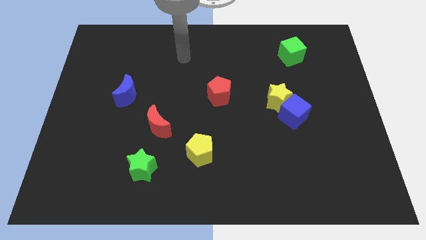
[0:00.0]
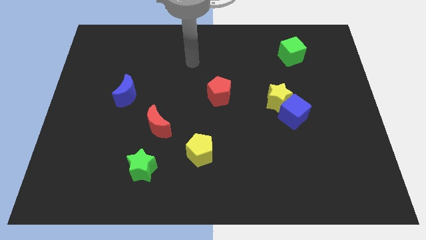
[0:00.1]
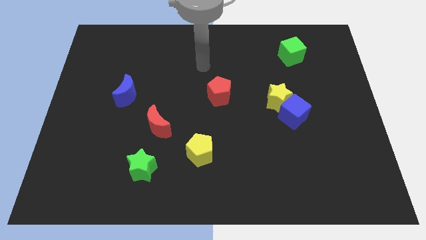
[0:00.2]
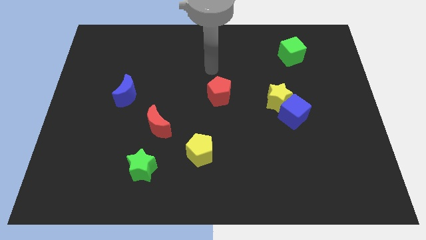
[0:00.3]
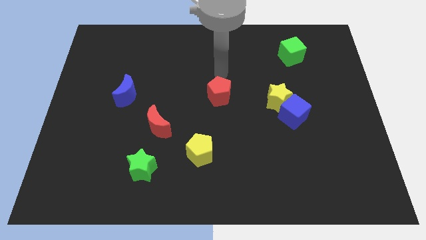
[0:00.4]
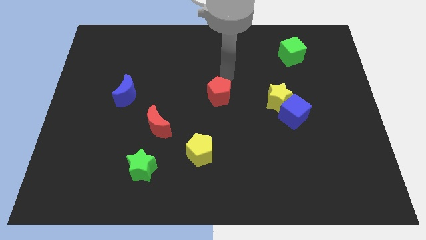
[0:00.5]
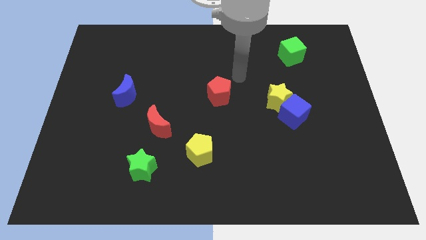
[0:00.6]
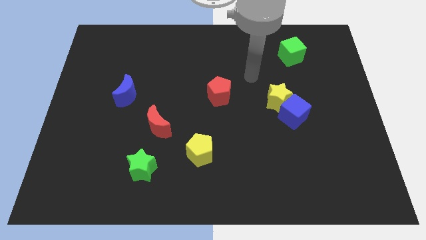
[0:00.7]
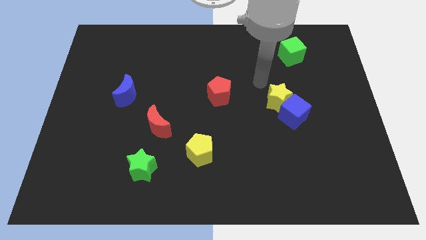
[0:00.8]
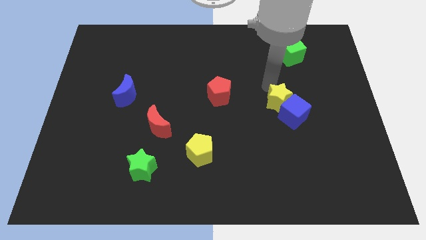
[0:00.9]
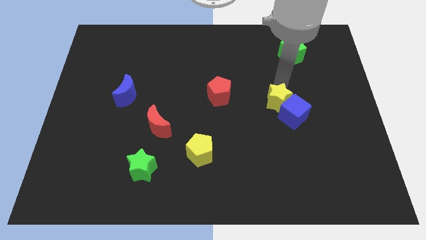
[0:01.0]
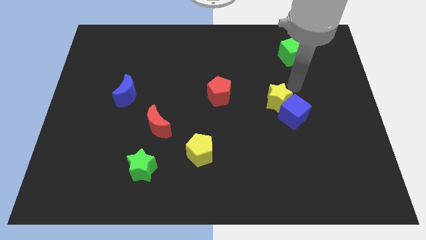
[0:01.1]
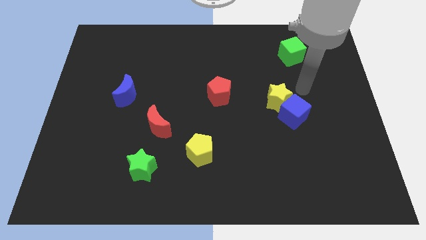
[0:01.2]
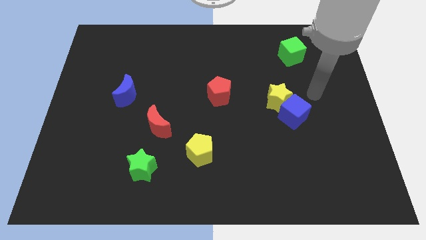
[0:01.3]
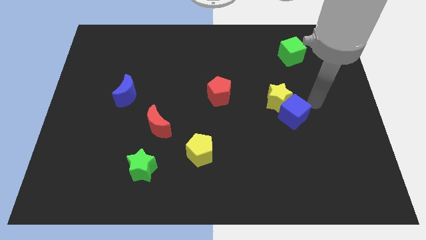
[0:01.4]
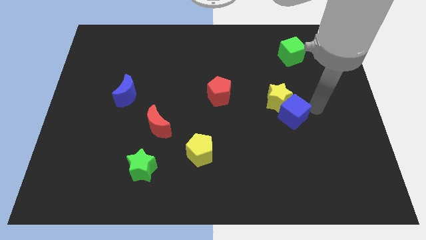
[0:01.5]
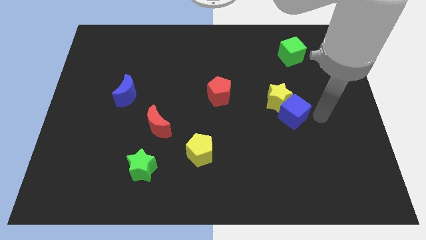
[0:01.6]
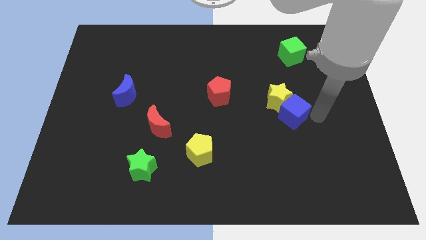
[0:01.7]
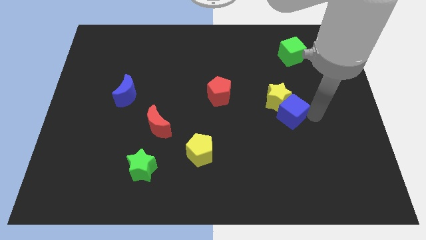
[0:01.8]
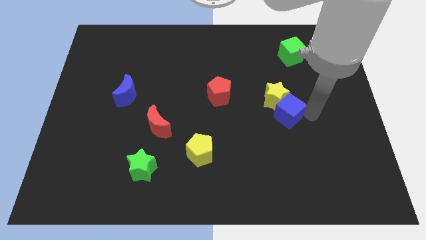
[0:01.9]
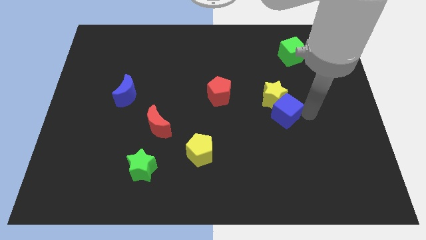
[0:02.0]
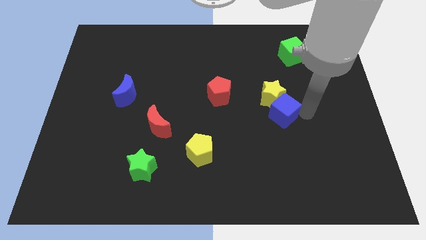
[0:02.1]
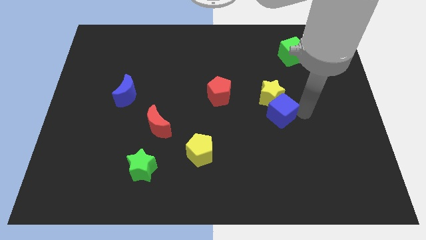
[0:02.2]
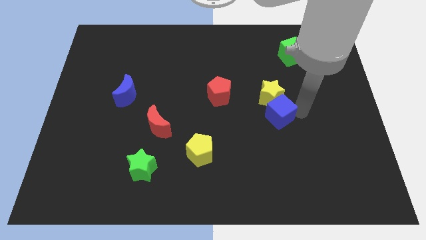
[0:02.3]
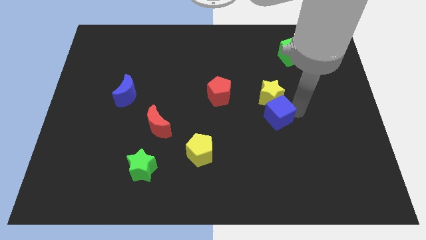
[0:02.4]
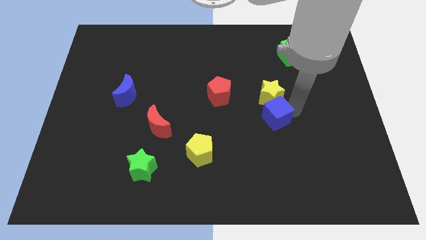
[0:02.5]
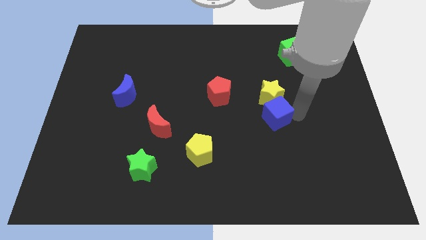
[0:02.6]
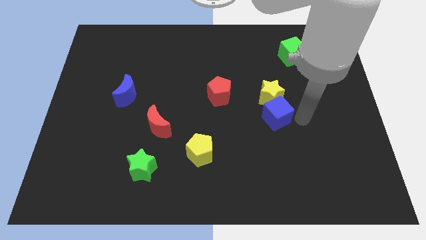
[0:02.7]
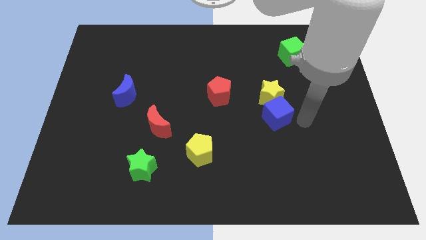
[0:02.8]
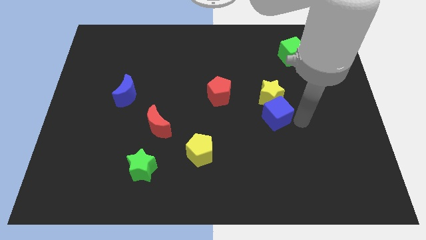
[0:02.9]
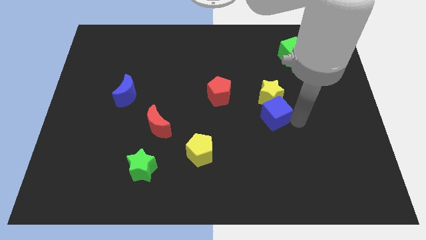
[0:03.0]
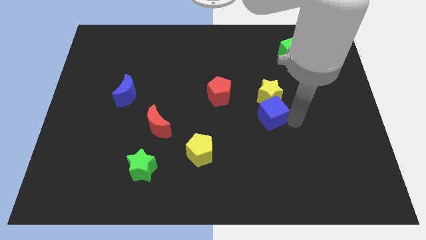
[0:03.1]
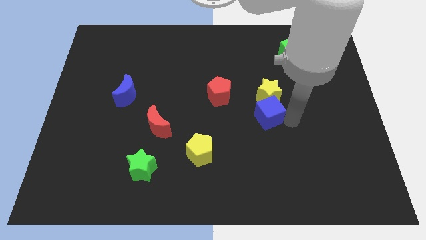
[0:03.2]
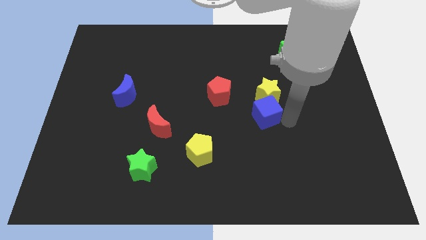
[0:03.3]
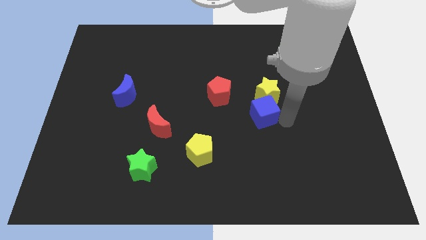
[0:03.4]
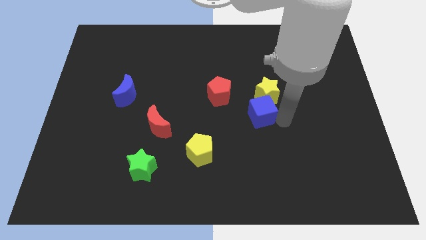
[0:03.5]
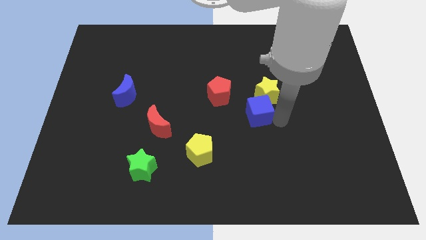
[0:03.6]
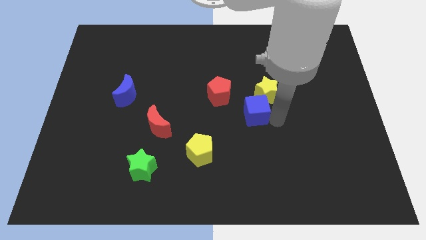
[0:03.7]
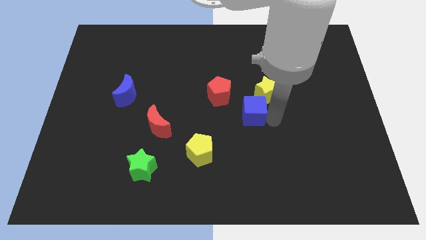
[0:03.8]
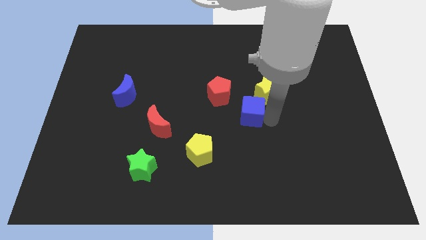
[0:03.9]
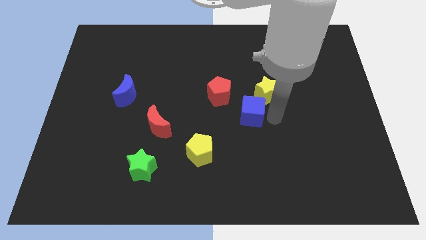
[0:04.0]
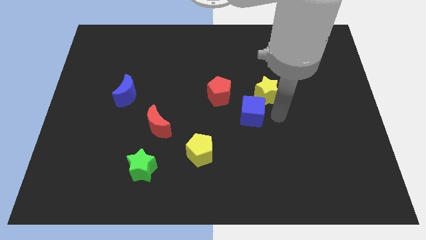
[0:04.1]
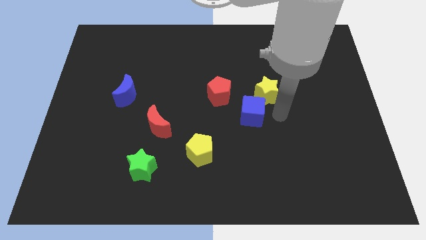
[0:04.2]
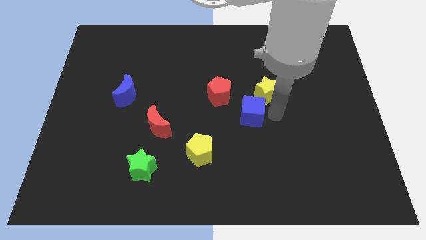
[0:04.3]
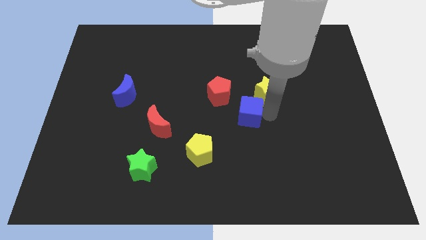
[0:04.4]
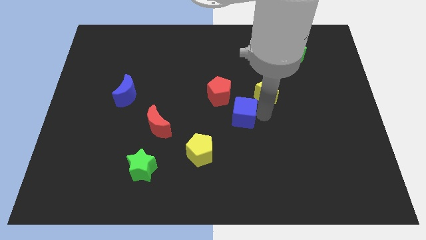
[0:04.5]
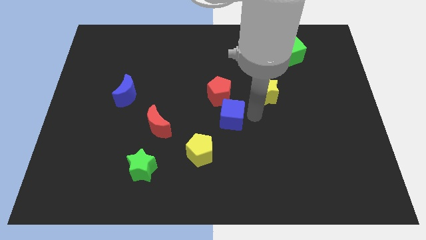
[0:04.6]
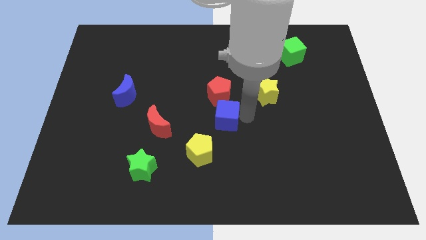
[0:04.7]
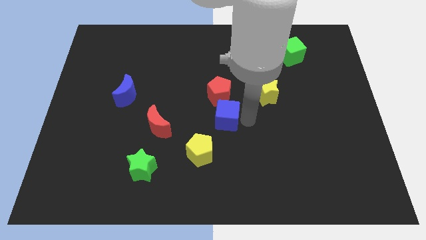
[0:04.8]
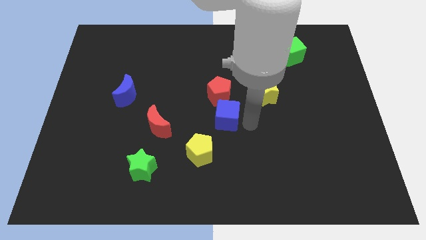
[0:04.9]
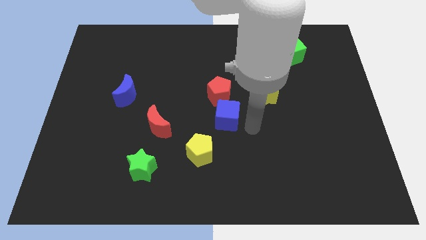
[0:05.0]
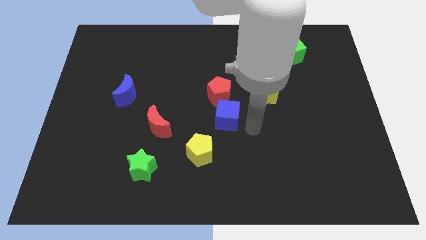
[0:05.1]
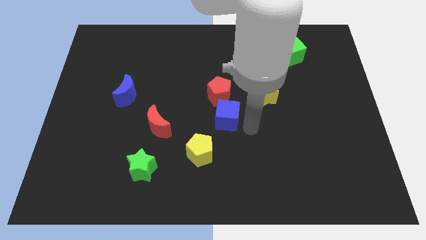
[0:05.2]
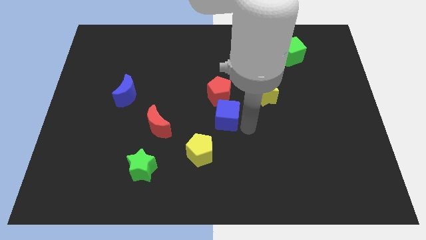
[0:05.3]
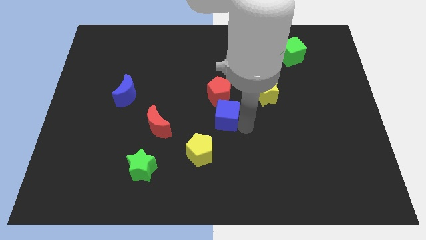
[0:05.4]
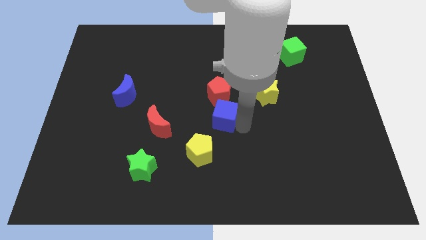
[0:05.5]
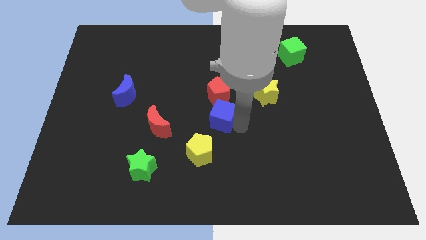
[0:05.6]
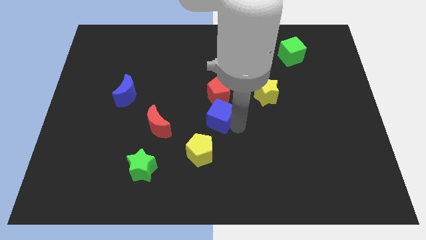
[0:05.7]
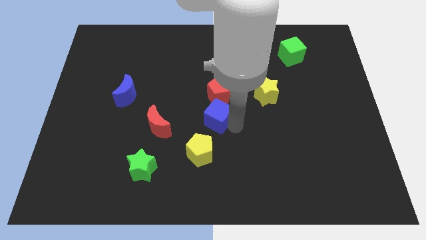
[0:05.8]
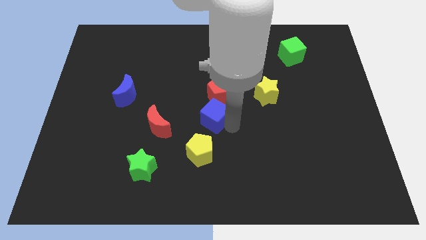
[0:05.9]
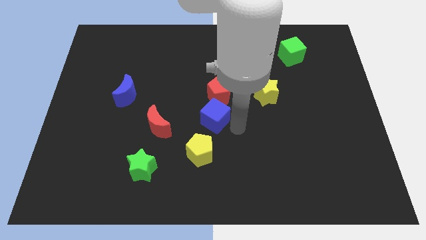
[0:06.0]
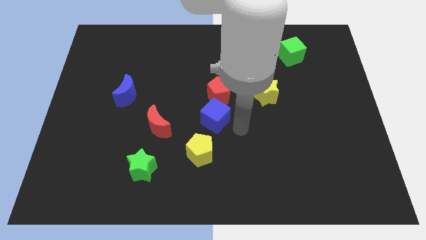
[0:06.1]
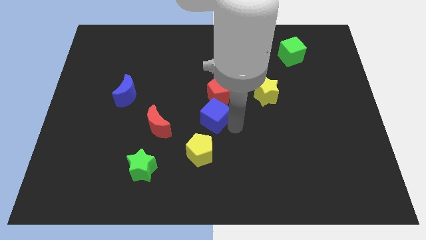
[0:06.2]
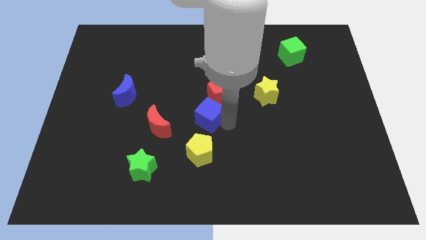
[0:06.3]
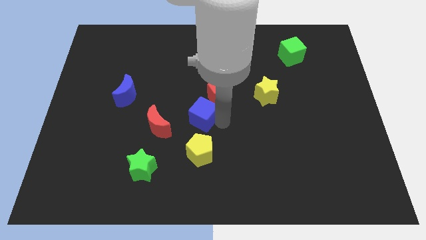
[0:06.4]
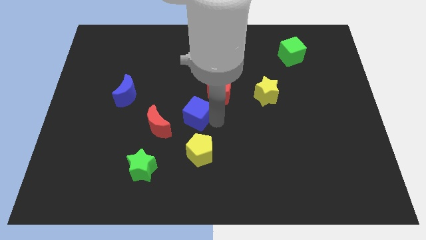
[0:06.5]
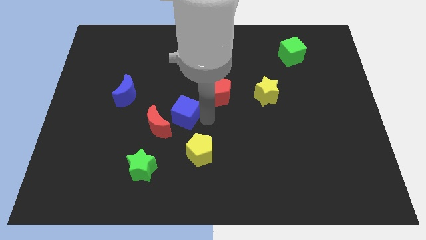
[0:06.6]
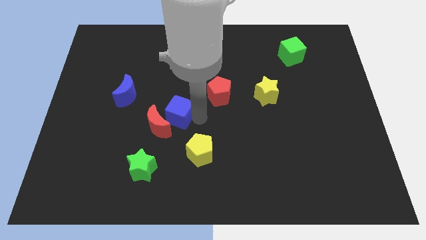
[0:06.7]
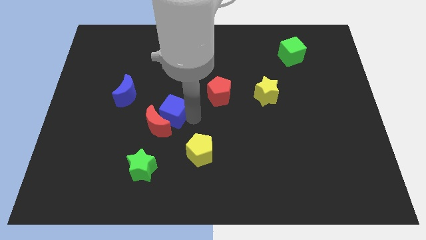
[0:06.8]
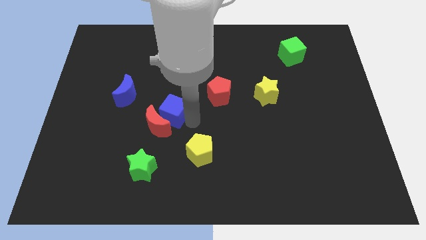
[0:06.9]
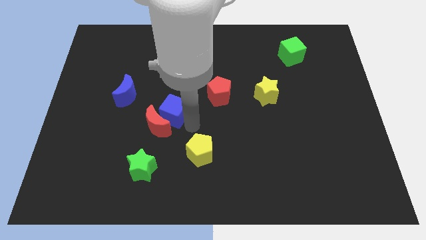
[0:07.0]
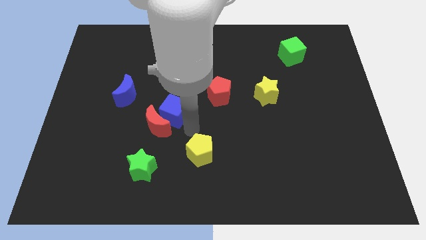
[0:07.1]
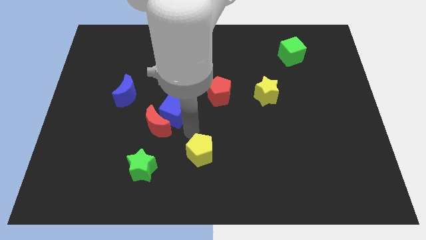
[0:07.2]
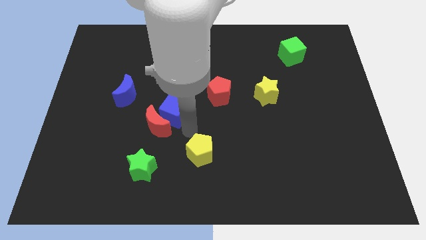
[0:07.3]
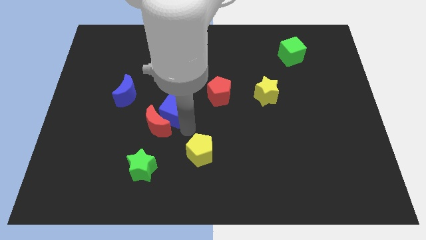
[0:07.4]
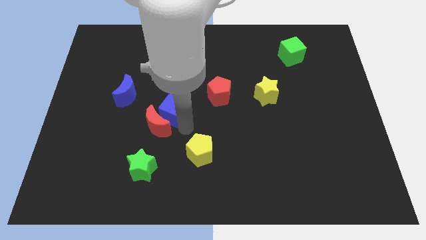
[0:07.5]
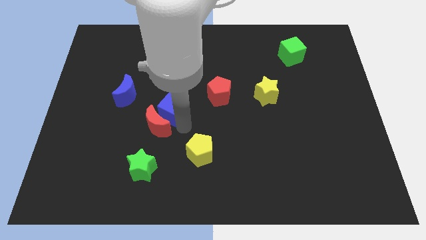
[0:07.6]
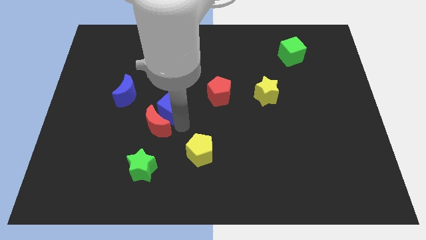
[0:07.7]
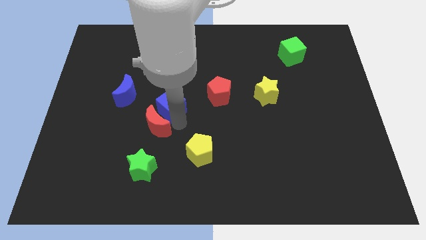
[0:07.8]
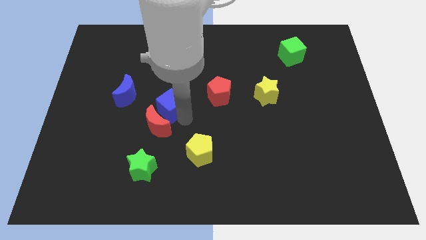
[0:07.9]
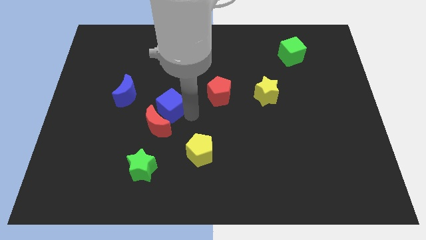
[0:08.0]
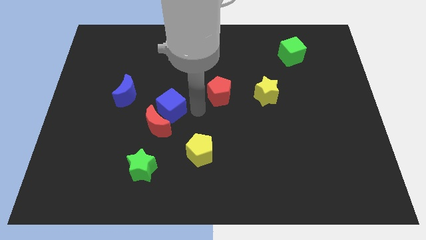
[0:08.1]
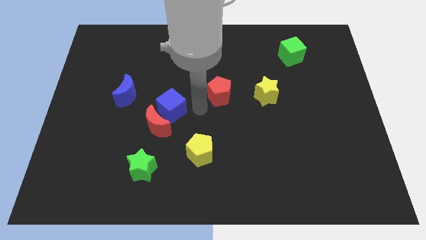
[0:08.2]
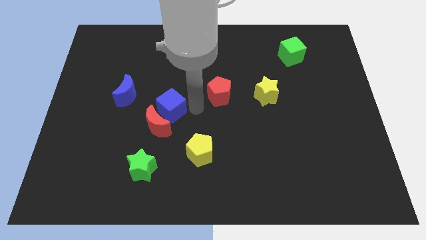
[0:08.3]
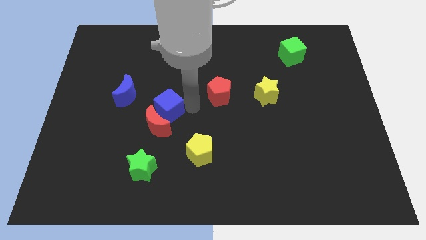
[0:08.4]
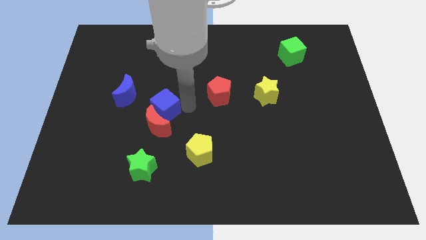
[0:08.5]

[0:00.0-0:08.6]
move the blue cube diagonally up and to the left of the red moon
